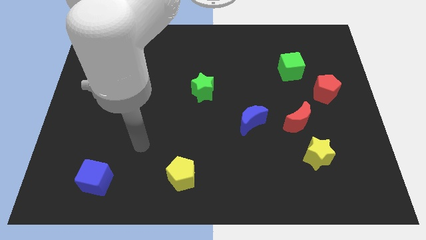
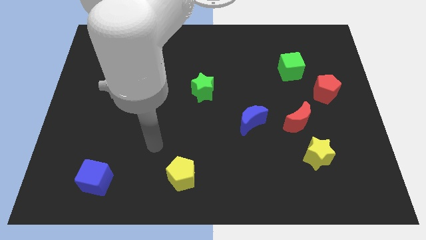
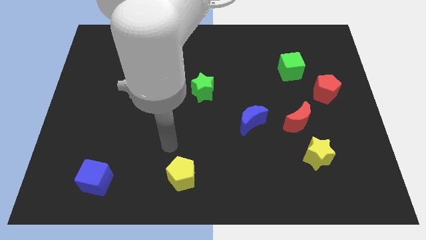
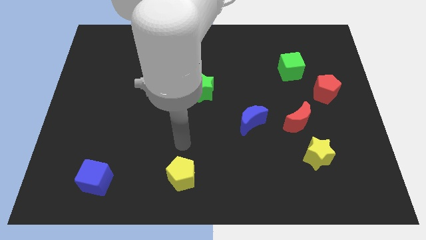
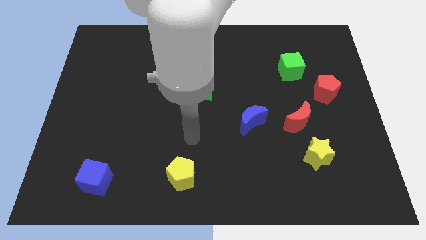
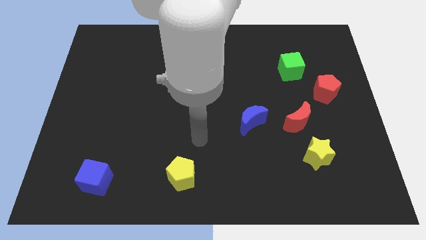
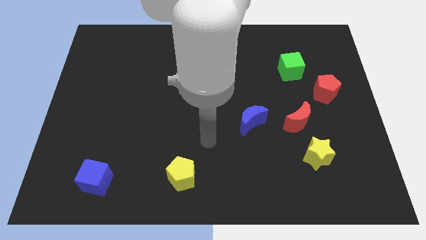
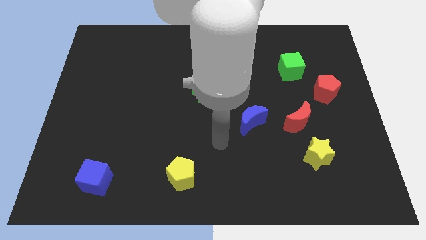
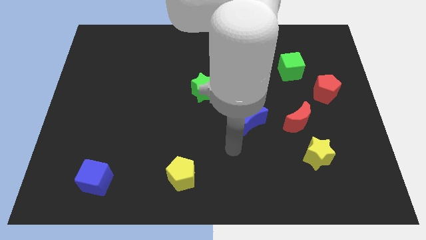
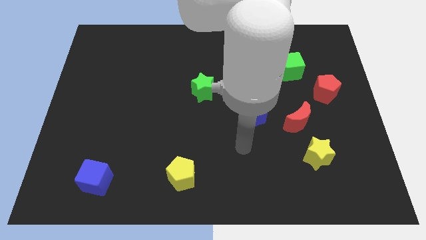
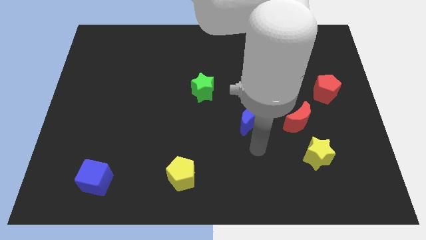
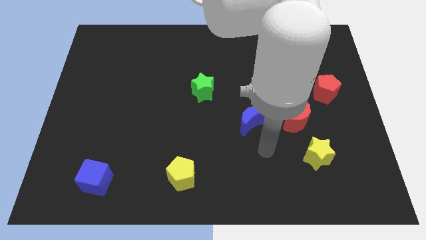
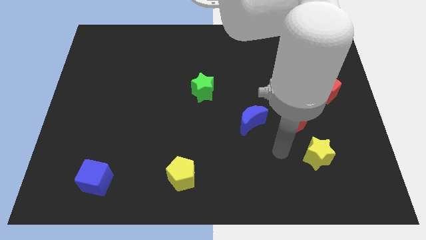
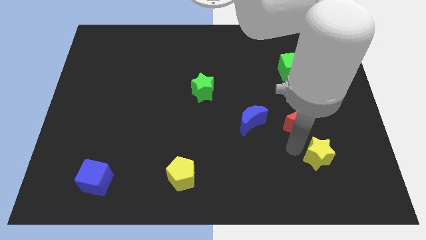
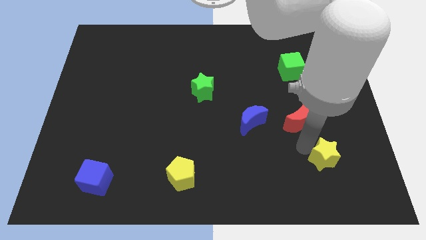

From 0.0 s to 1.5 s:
pull the red moon apart from the yellow star

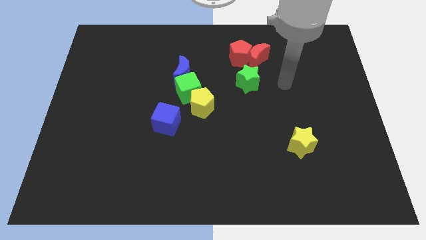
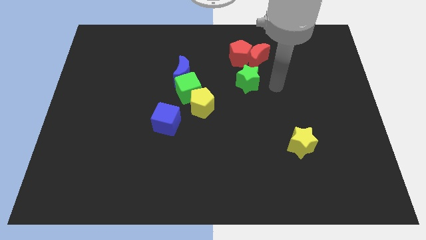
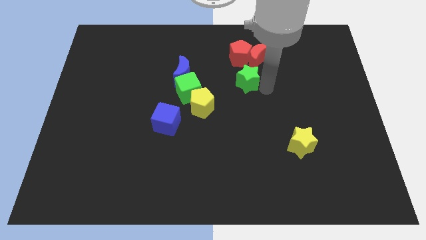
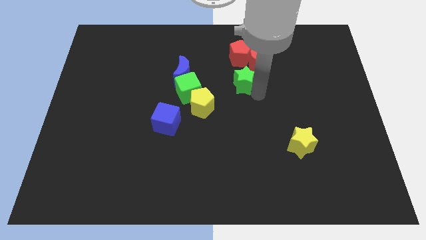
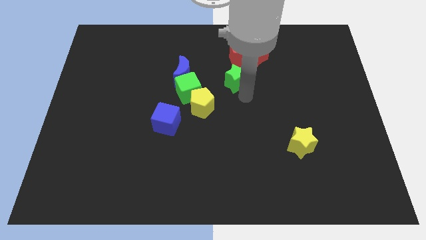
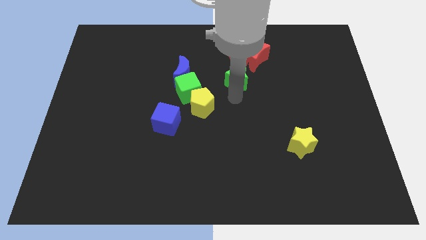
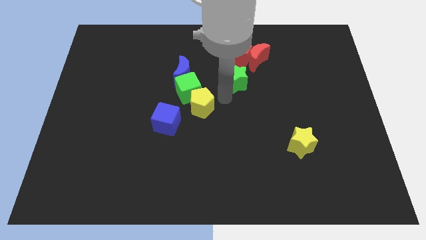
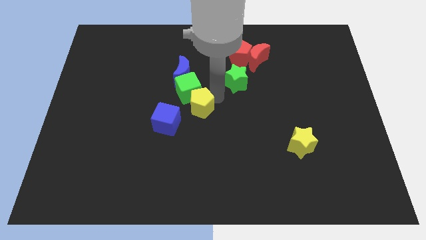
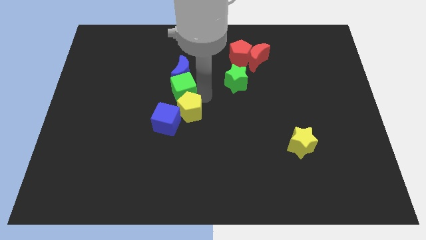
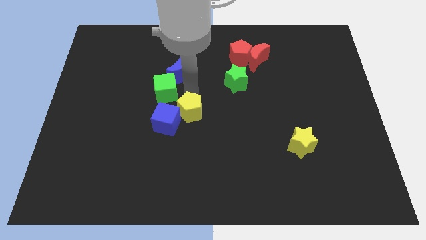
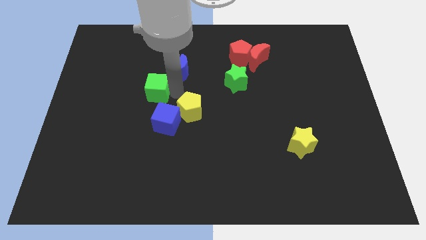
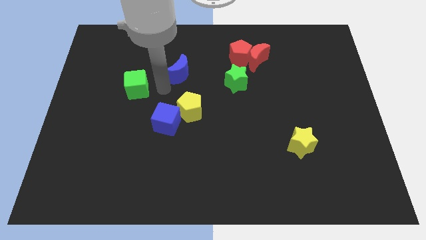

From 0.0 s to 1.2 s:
pull the blue moon apart from the green cube

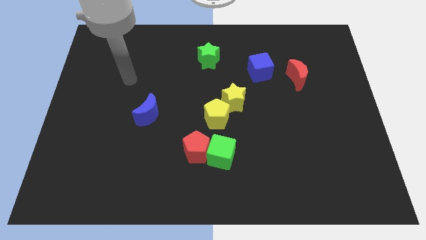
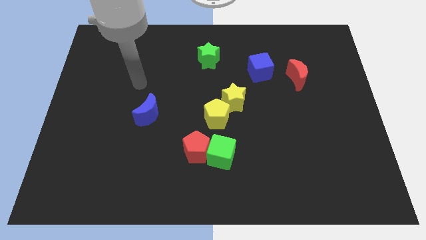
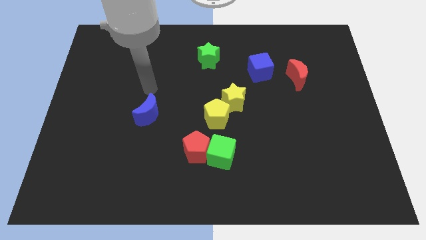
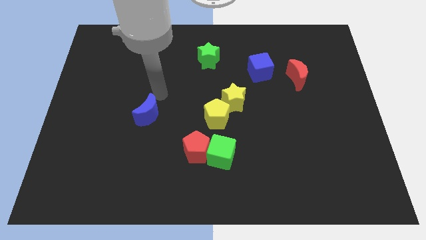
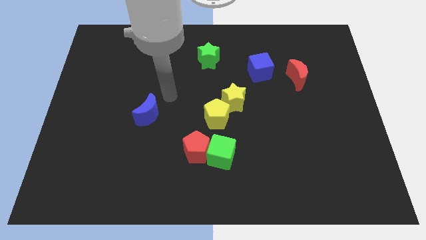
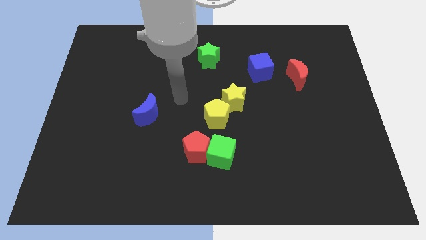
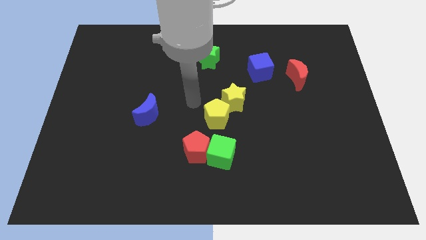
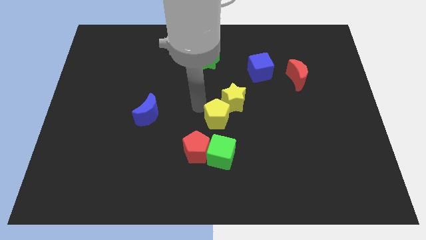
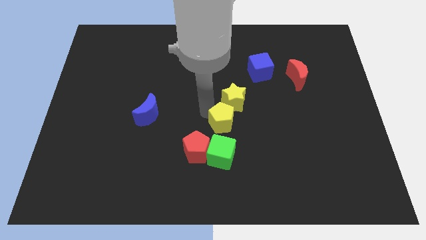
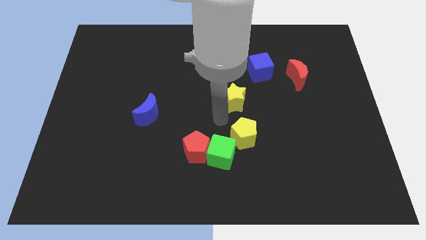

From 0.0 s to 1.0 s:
move the yellow star away from the yellow pentagon

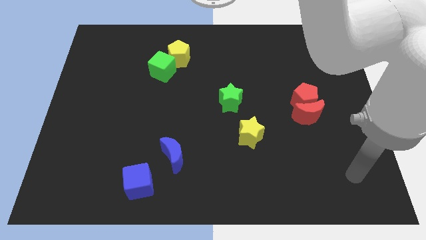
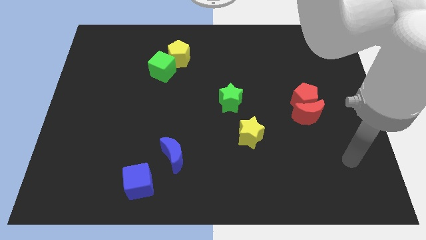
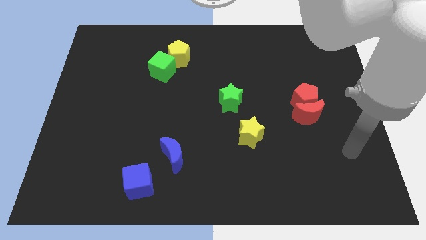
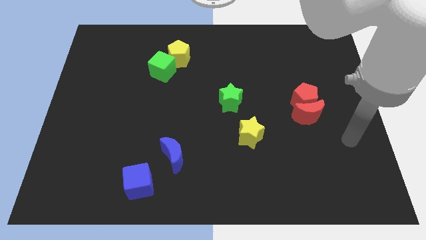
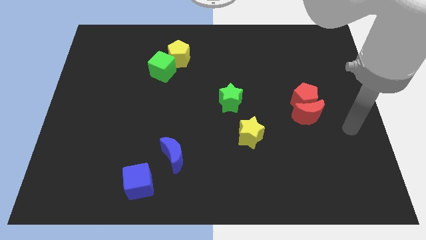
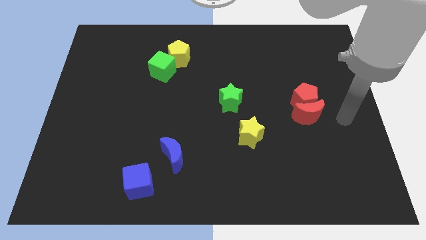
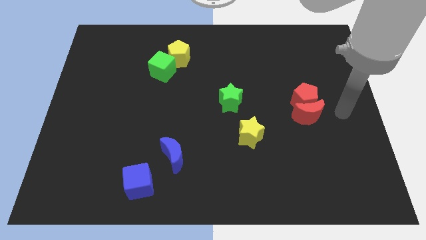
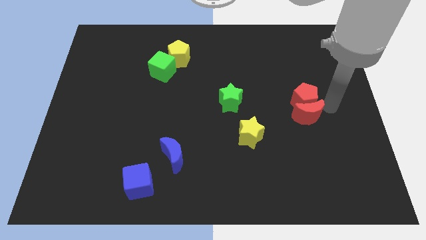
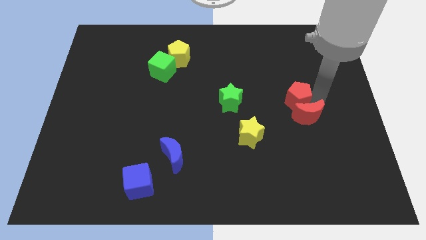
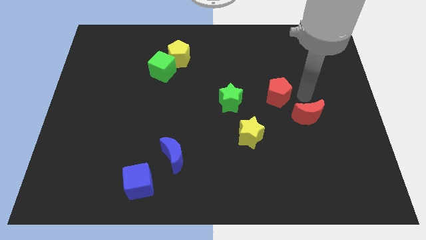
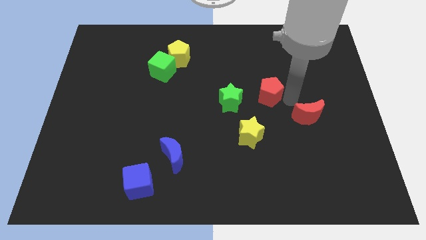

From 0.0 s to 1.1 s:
move the red moon away from the red pentagon

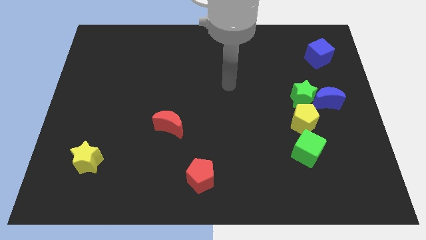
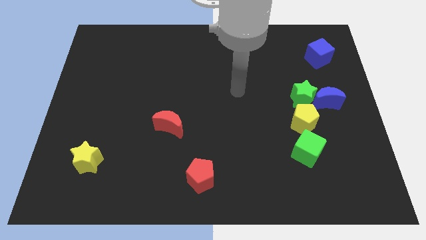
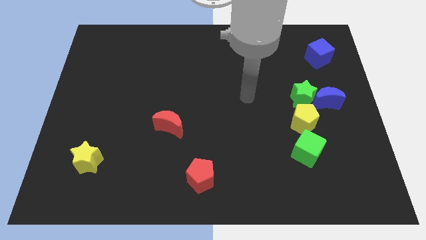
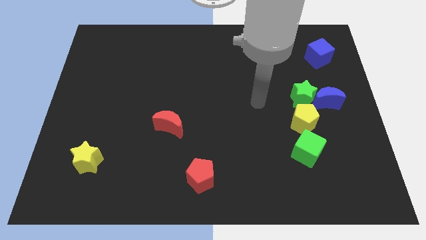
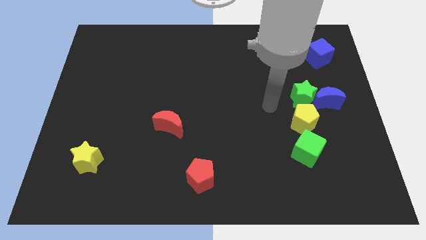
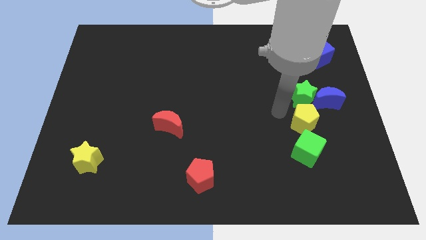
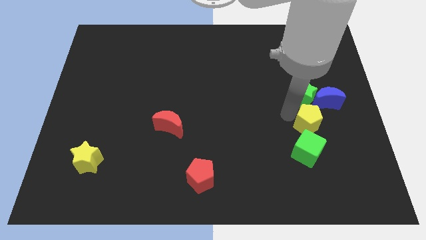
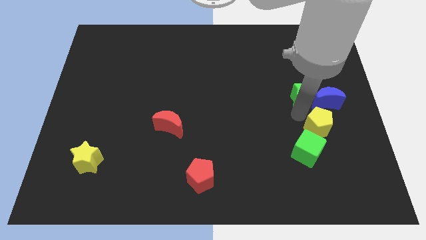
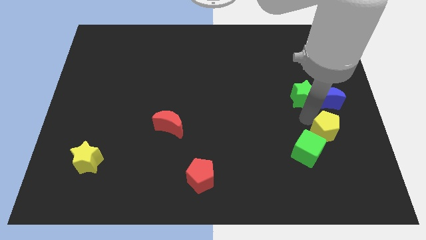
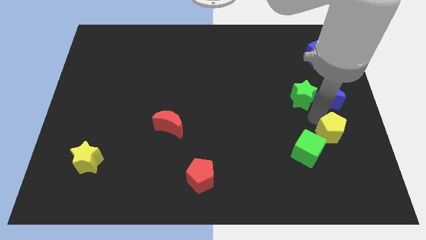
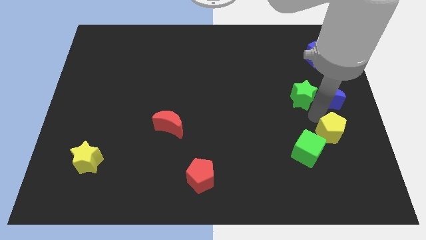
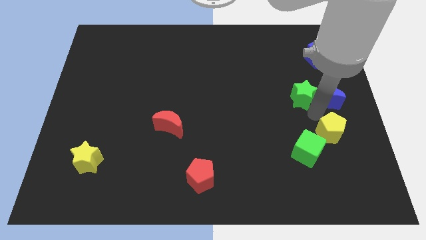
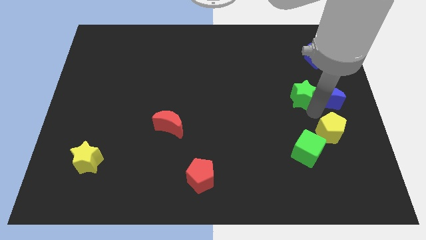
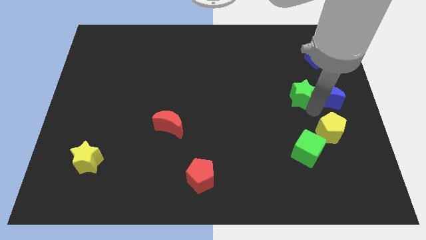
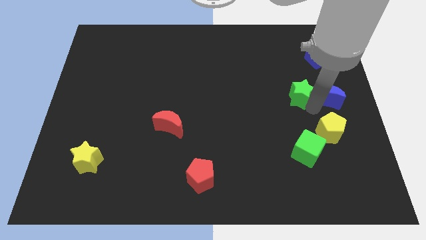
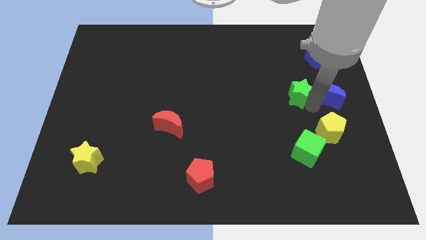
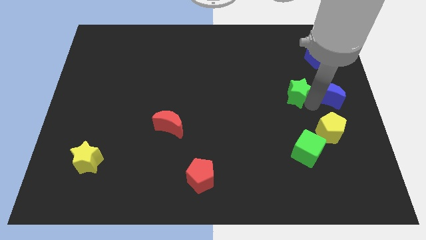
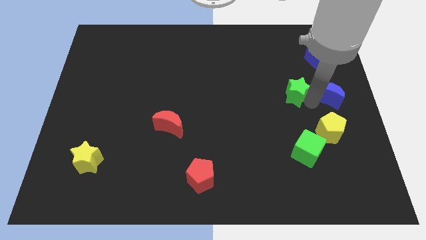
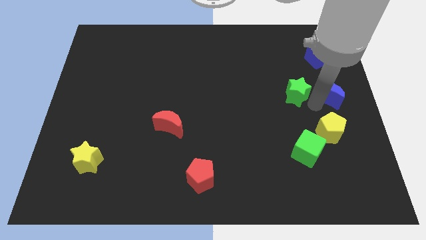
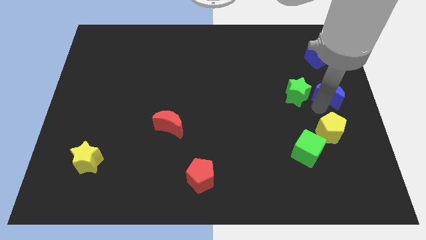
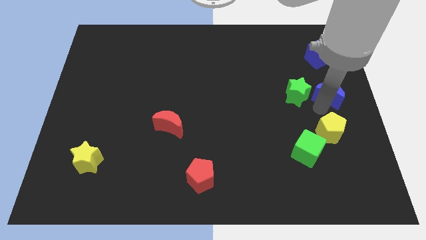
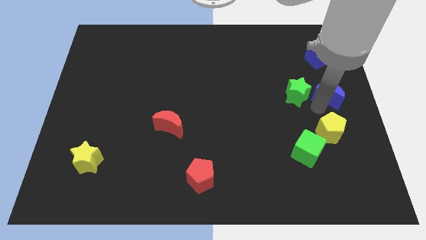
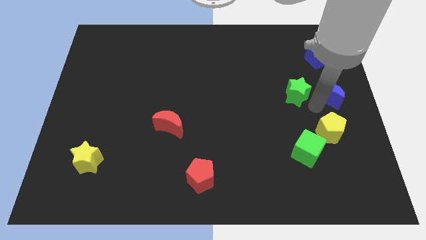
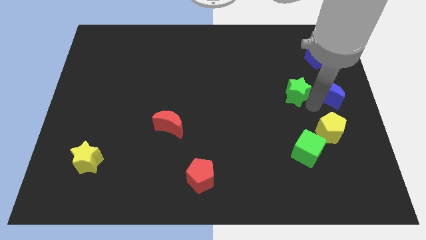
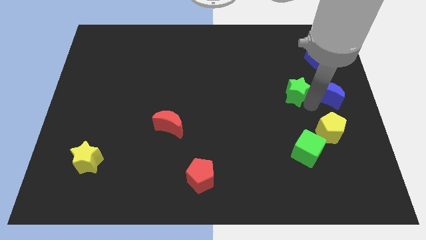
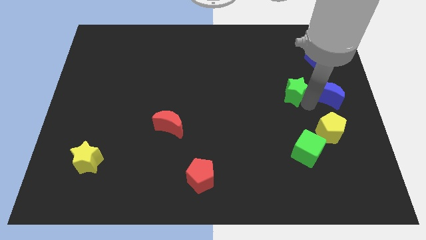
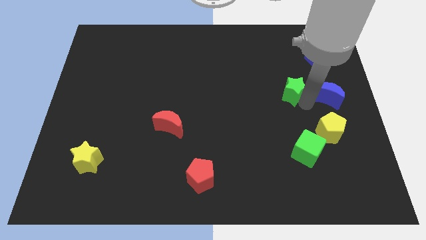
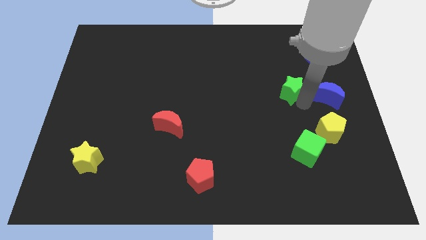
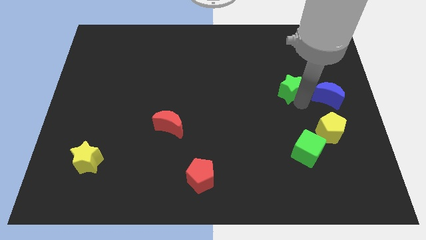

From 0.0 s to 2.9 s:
separate the green star from the blue moon and yellow pentagon

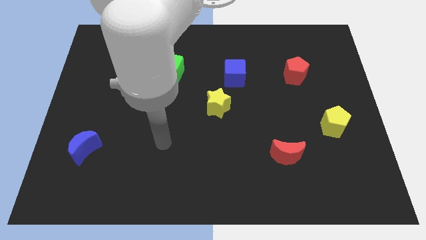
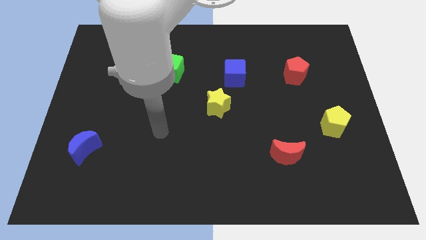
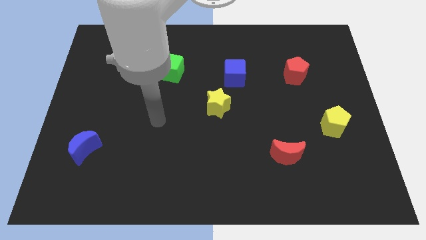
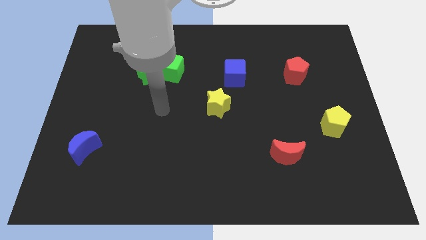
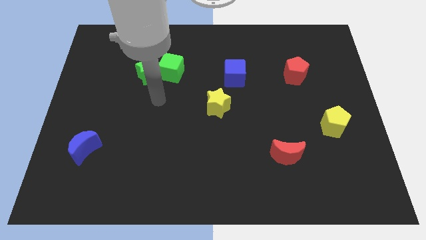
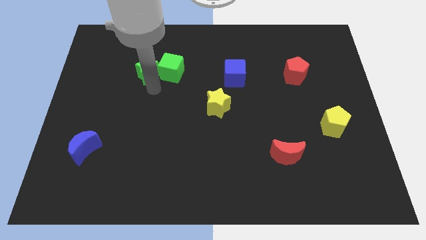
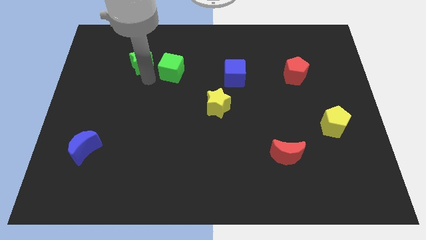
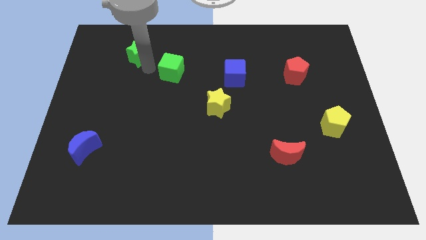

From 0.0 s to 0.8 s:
pull the green cube apart from the green star

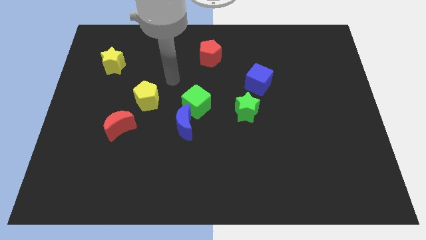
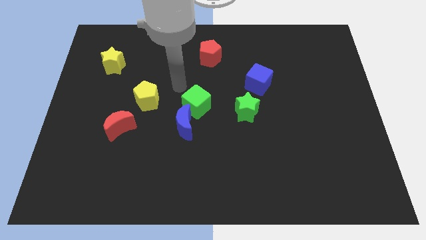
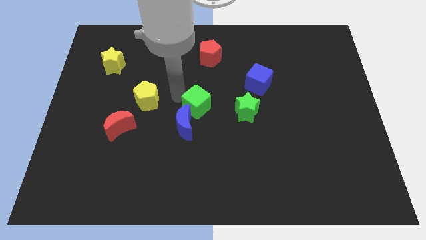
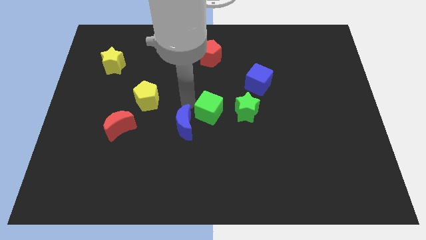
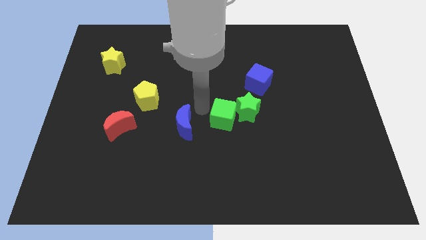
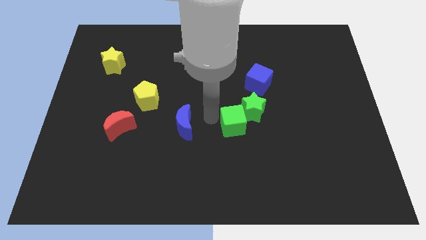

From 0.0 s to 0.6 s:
move the blue moon away from the green cube

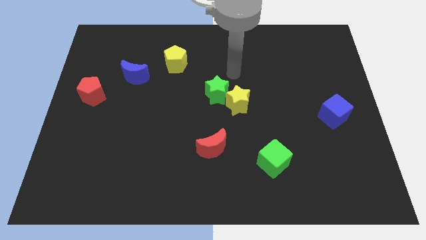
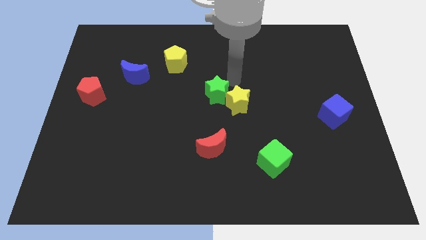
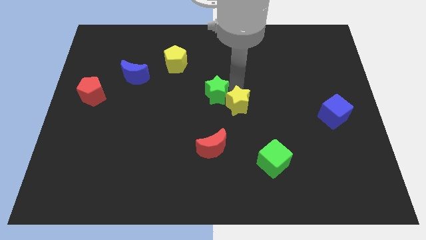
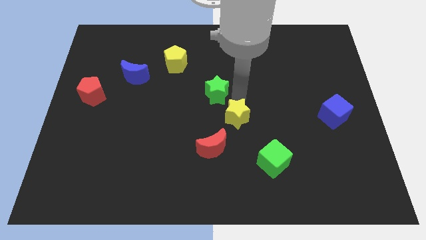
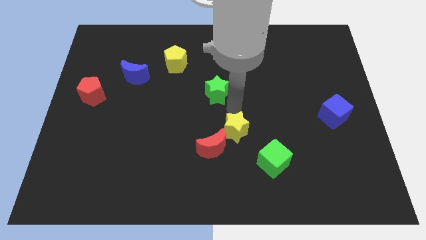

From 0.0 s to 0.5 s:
move the green star away from the yellow star
